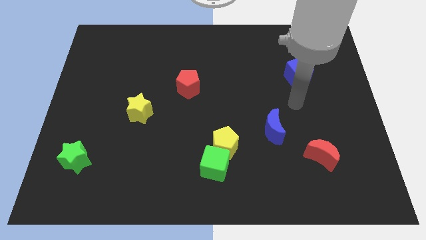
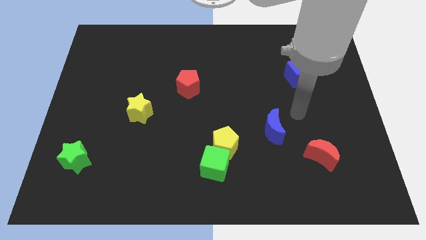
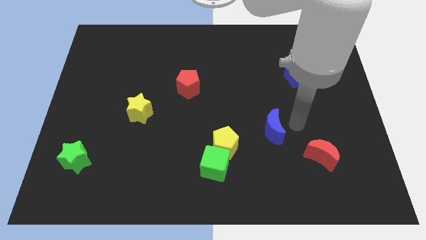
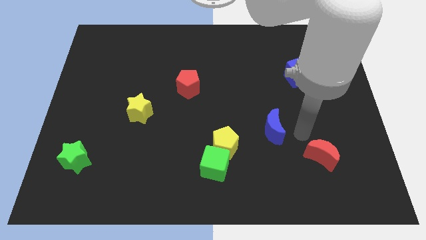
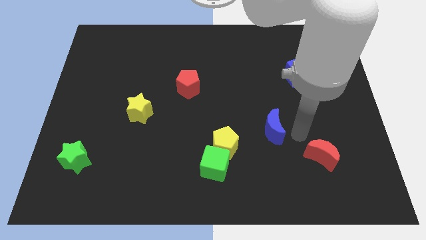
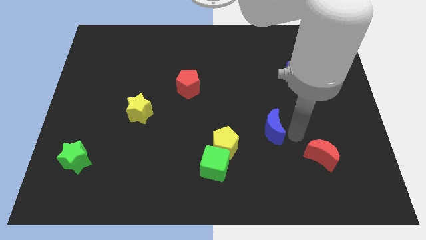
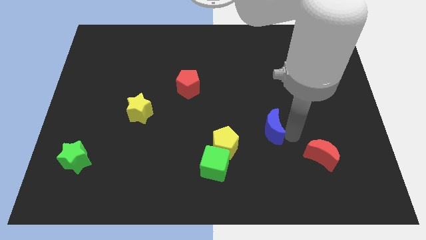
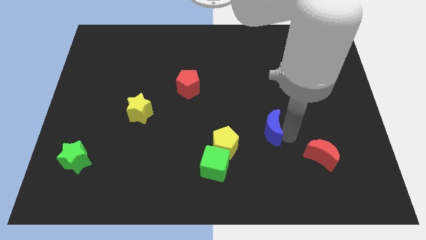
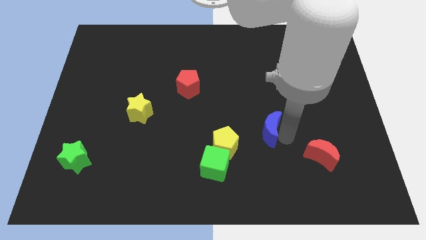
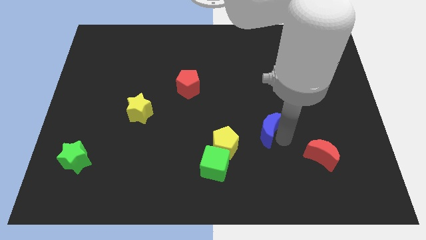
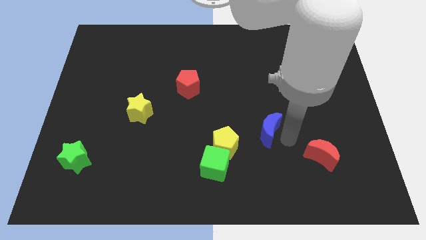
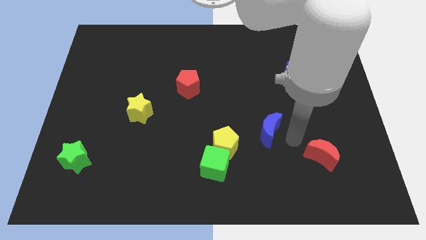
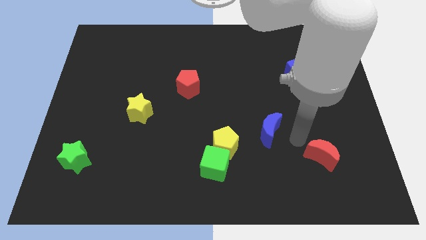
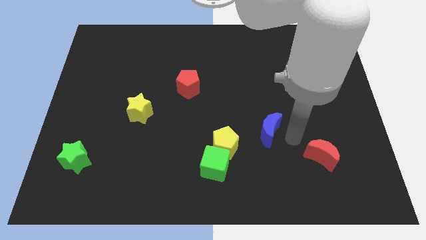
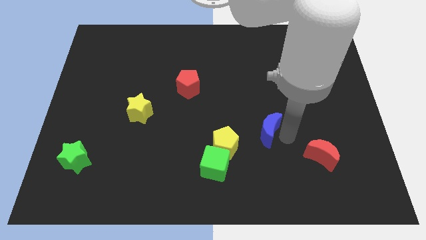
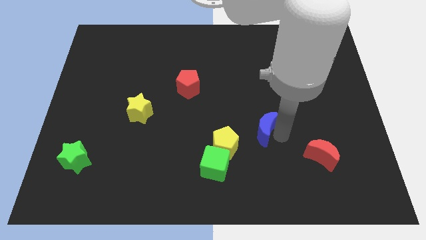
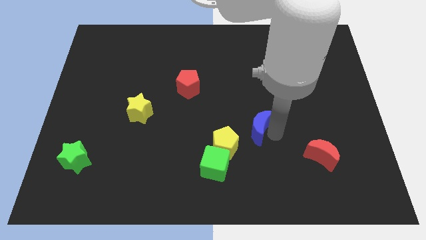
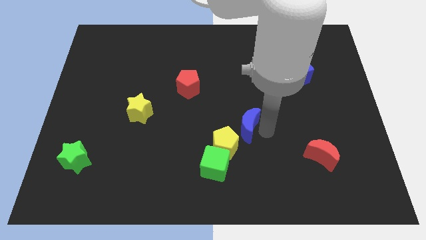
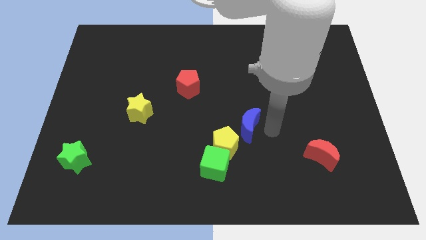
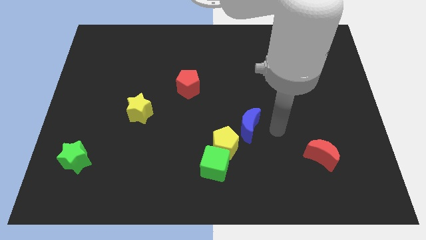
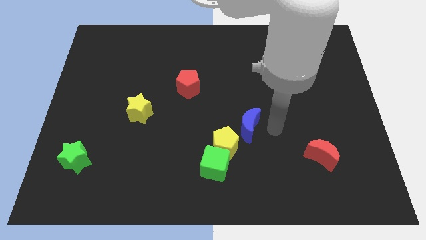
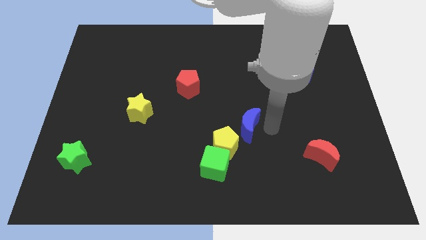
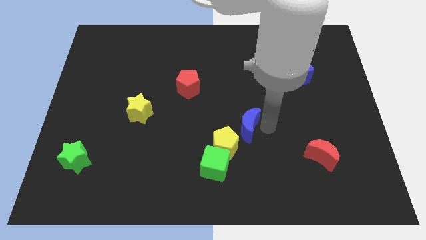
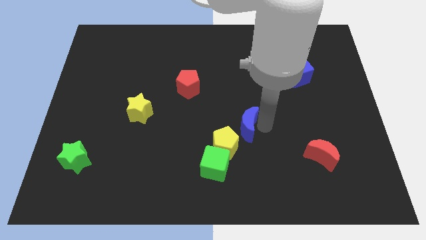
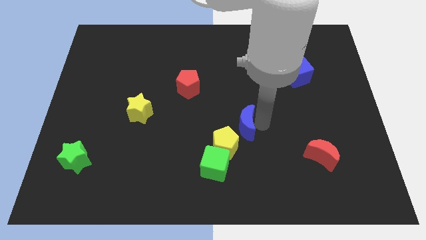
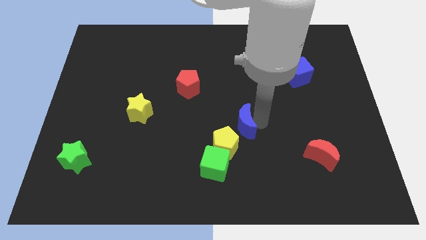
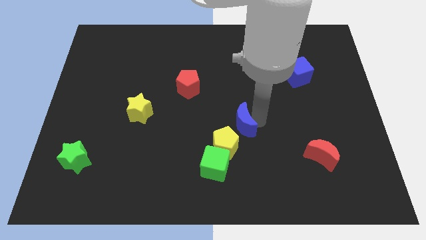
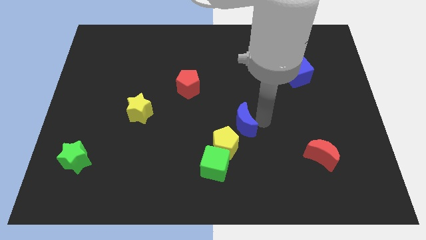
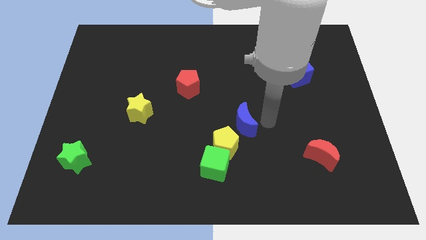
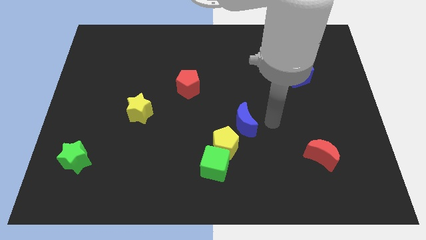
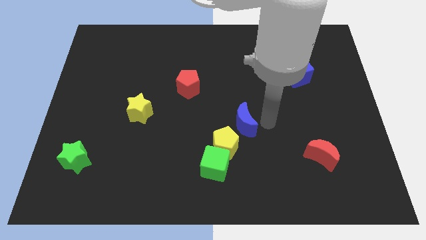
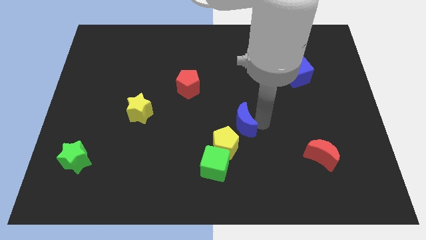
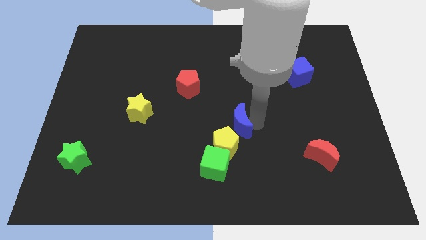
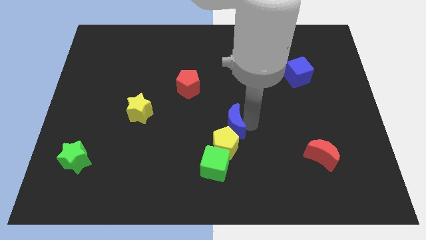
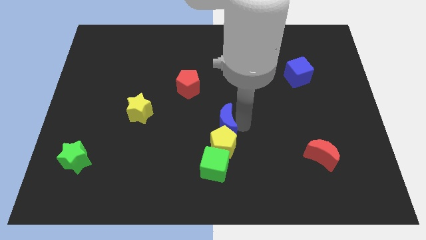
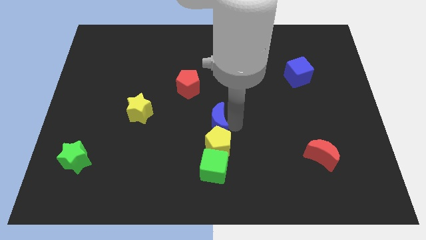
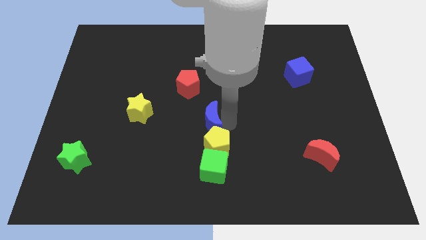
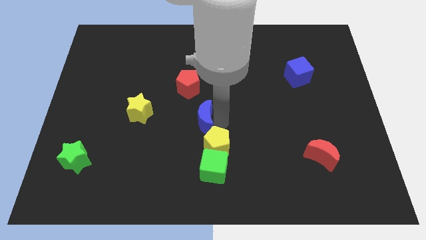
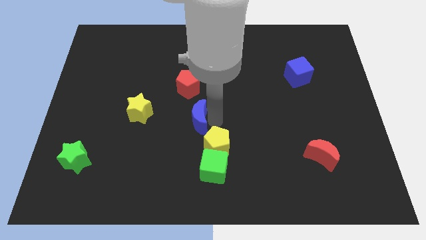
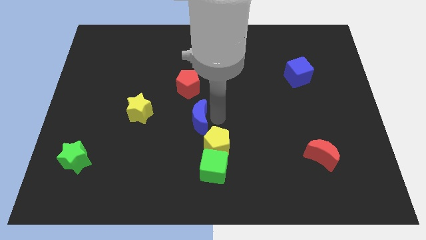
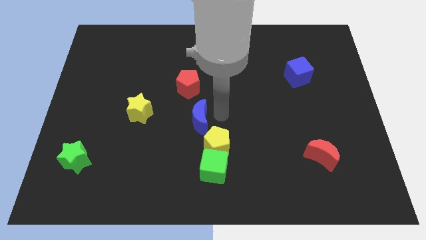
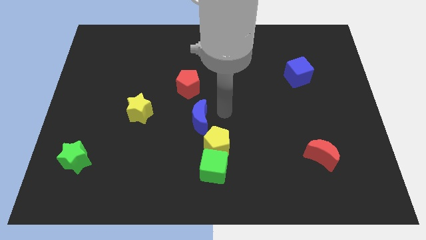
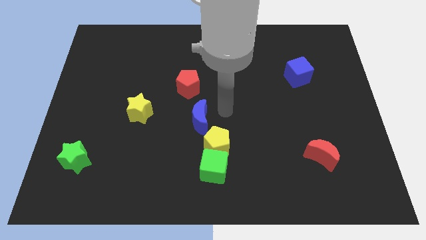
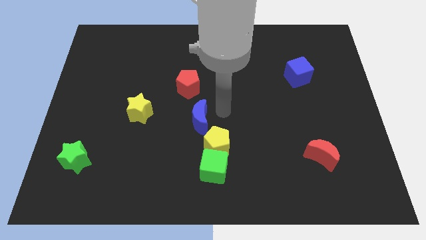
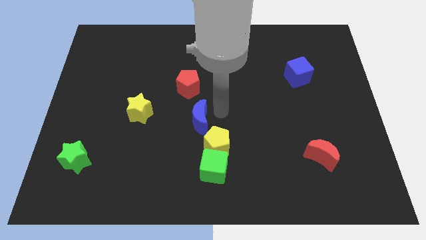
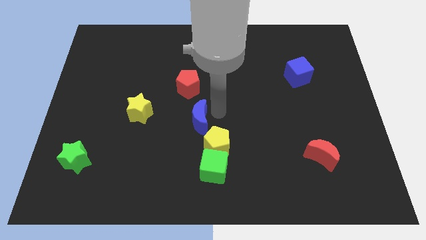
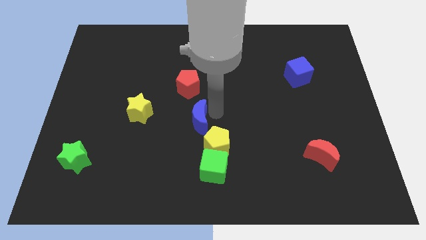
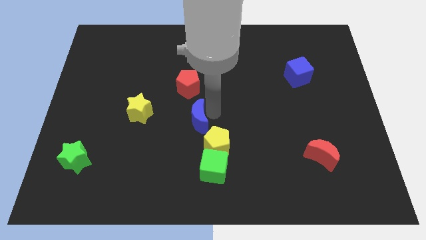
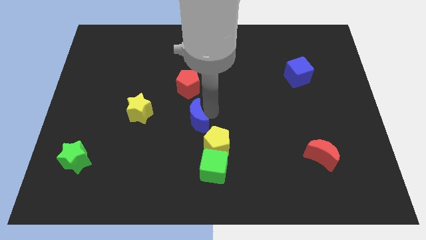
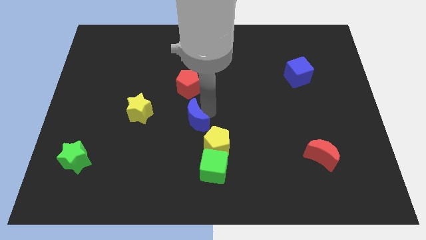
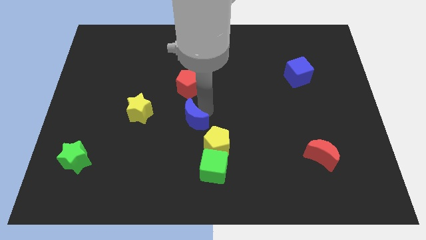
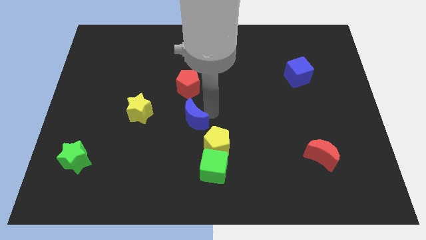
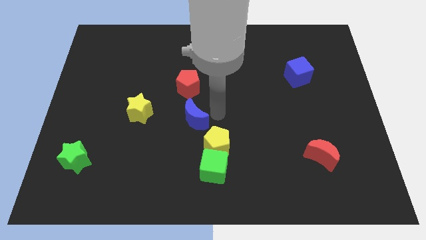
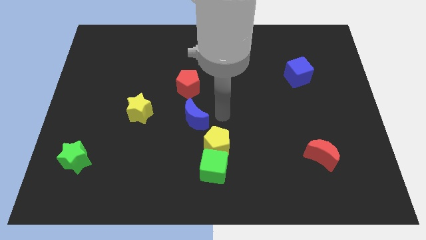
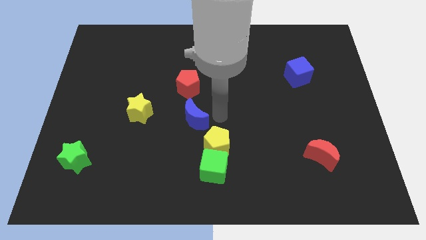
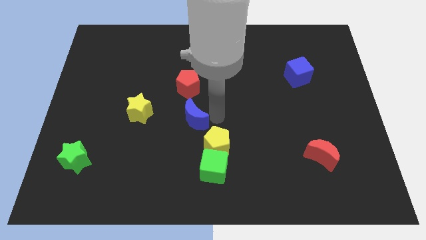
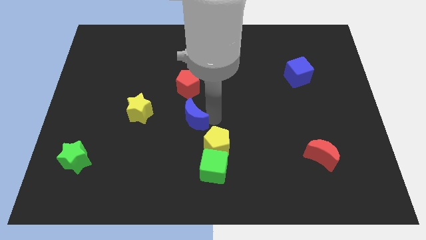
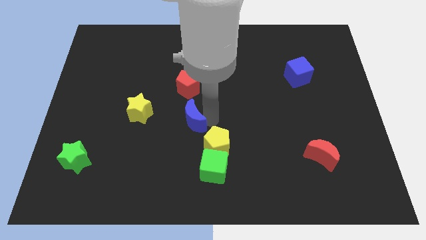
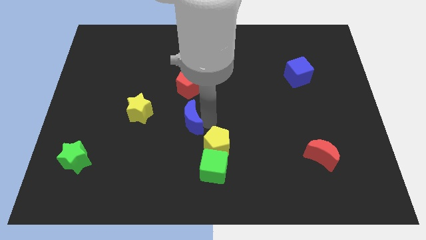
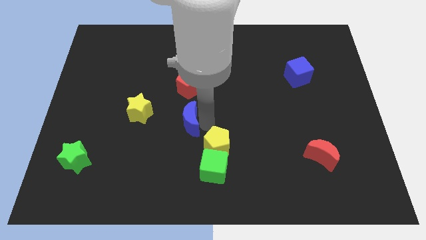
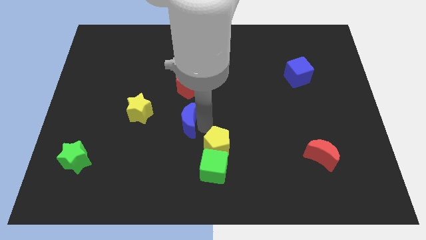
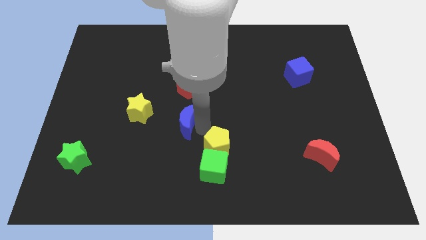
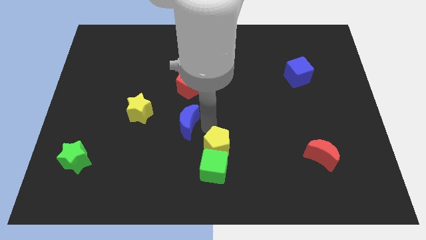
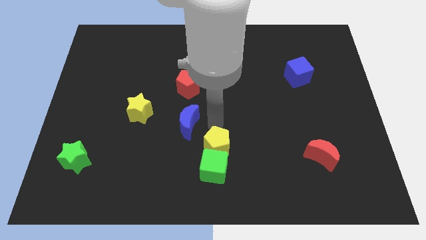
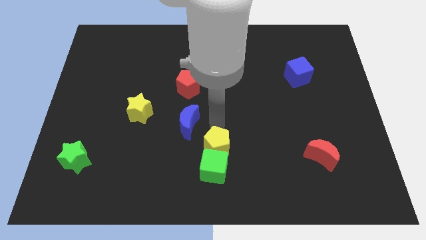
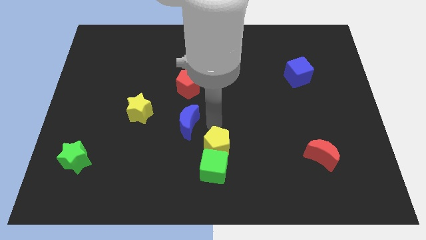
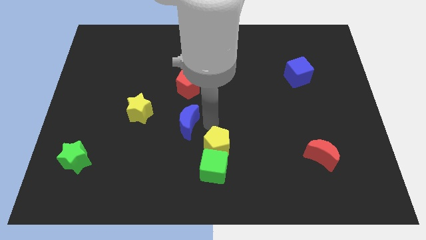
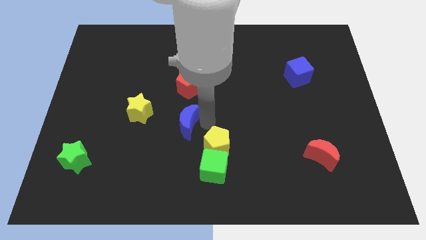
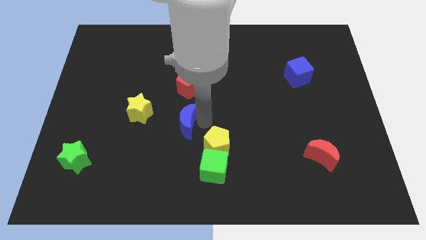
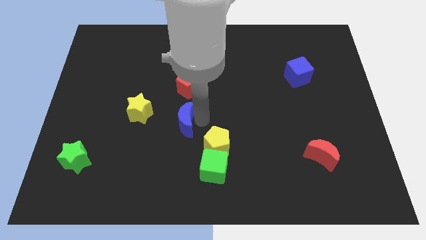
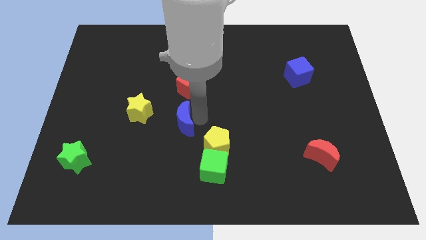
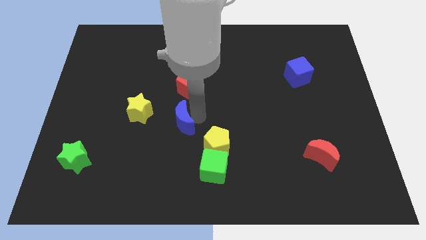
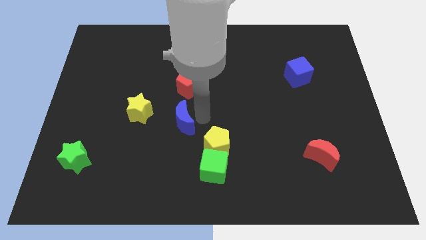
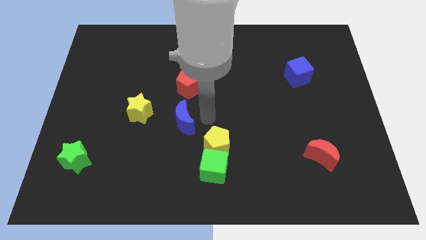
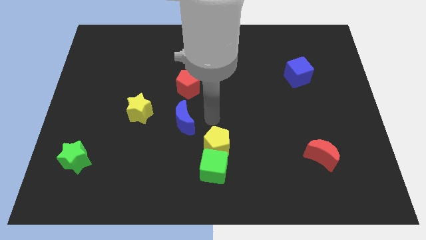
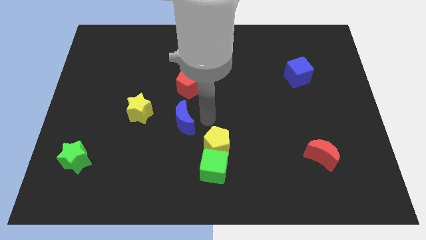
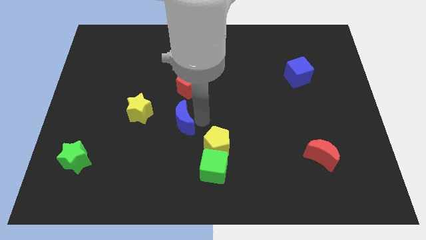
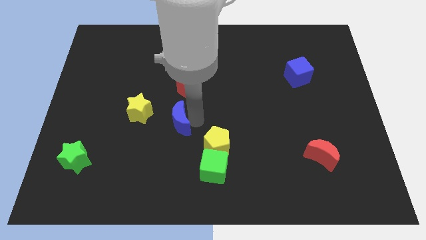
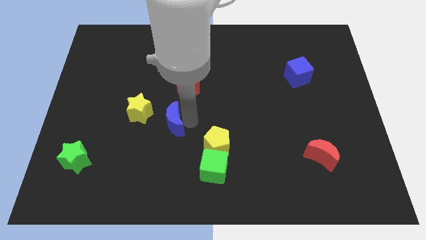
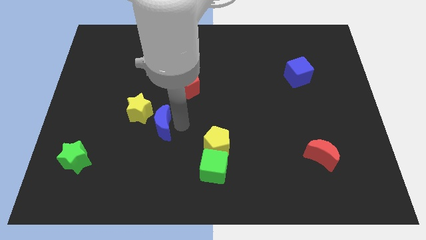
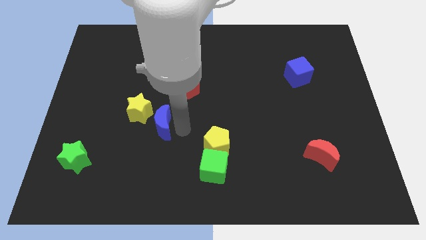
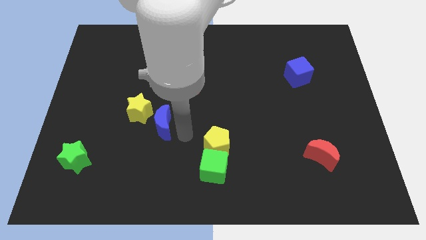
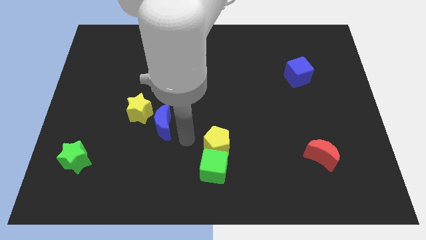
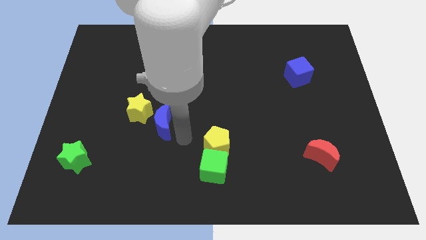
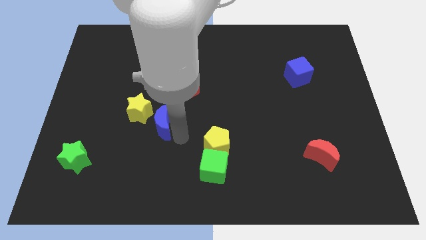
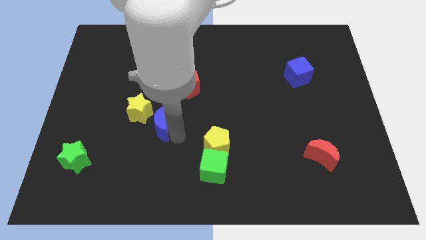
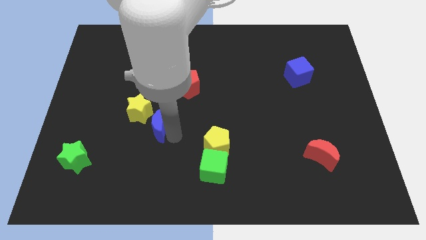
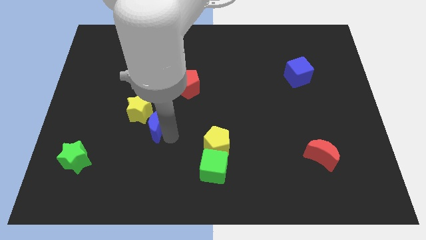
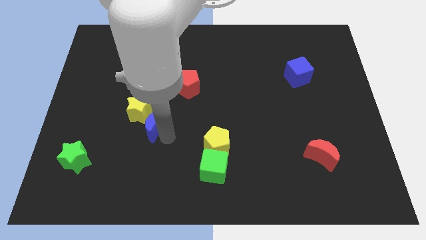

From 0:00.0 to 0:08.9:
put the blue moon towards the yellow star
